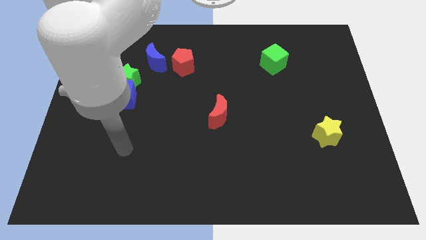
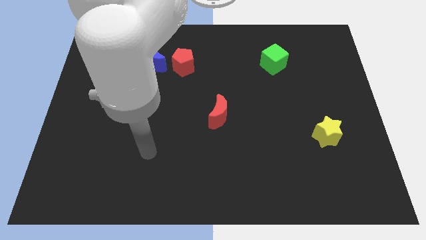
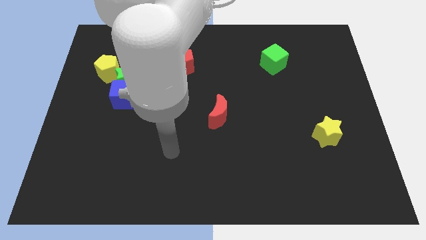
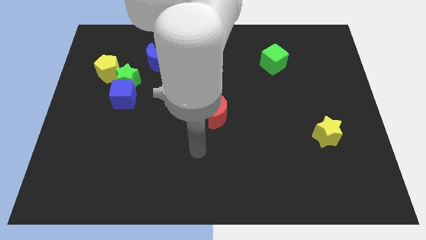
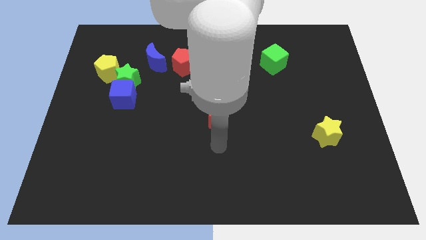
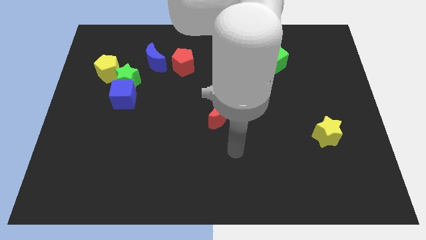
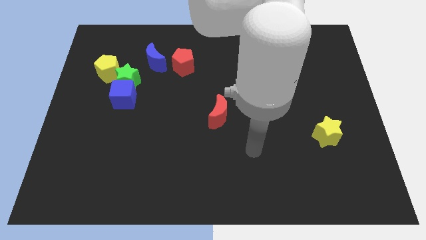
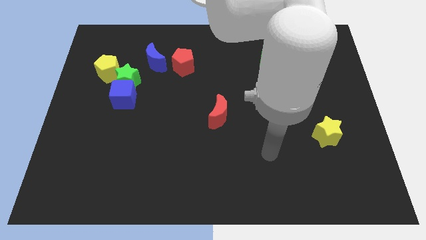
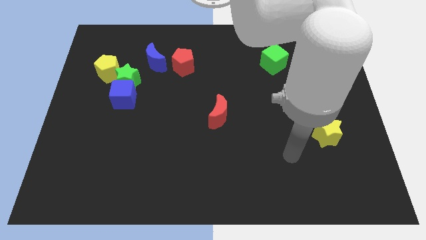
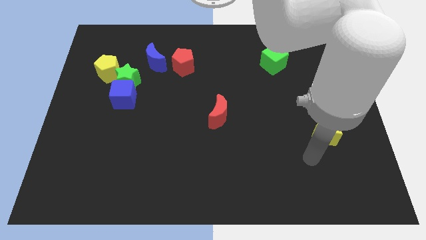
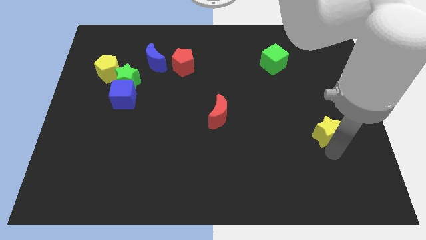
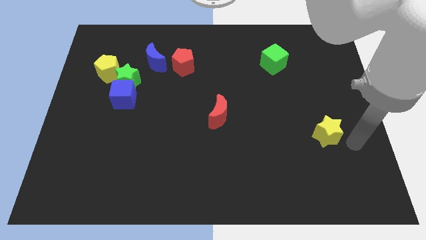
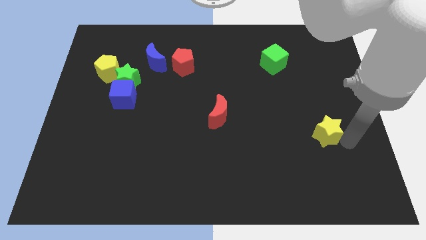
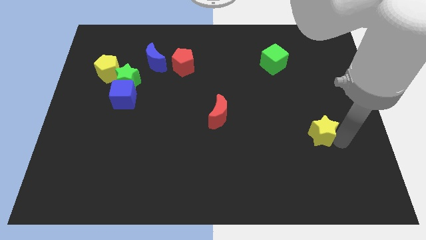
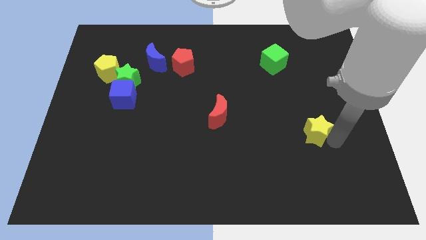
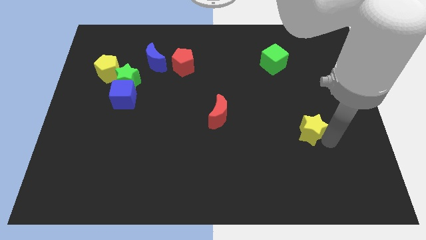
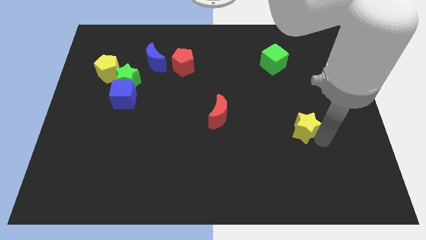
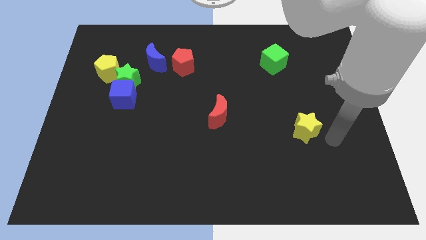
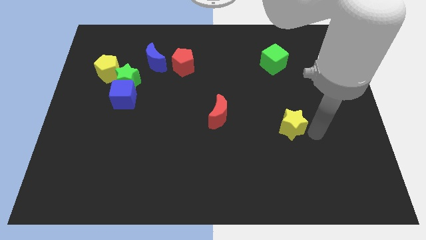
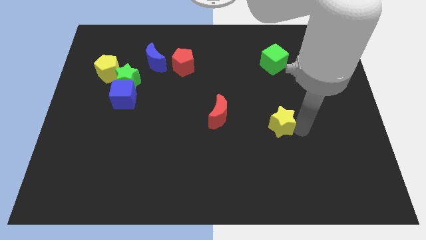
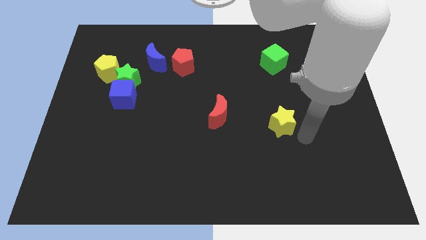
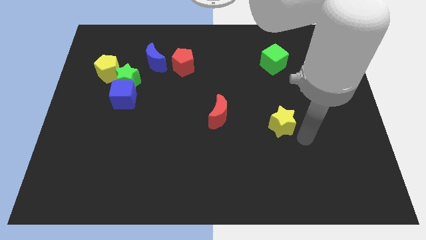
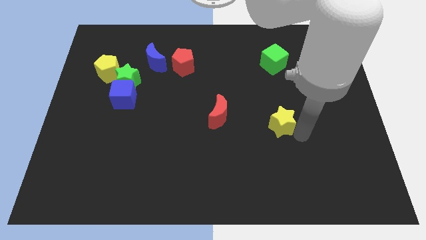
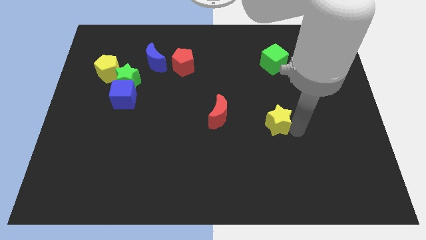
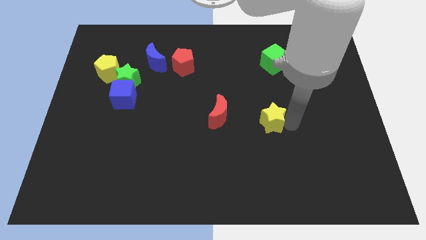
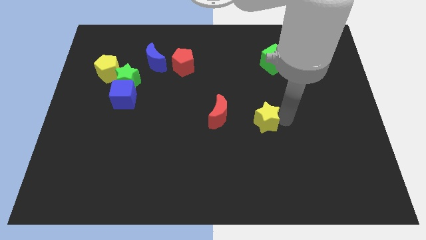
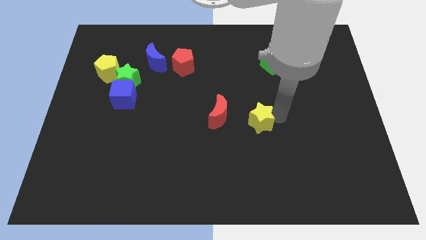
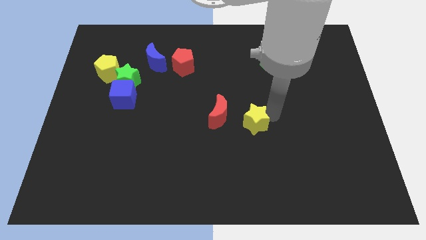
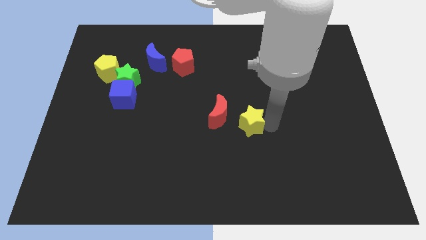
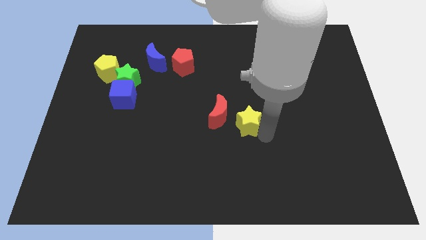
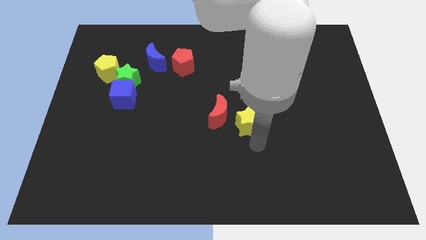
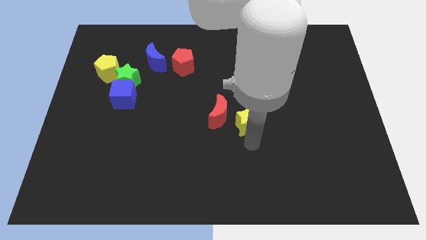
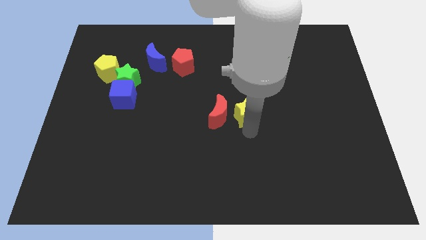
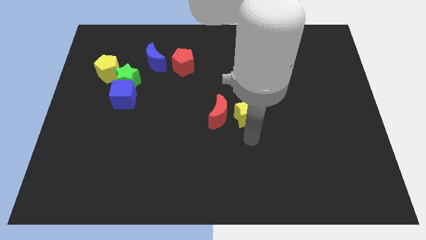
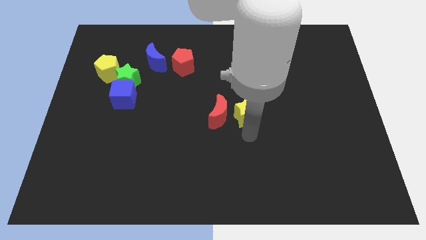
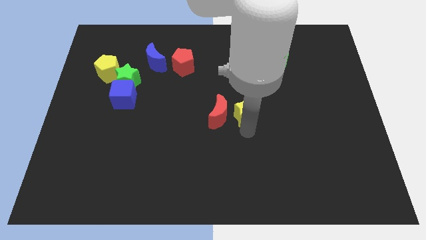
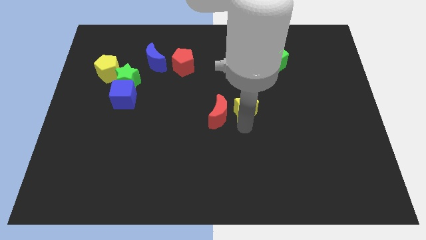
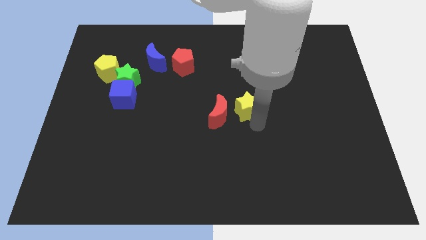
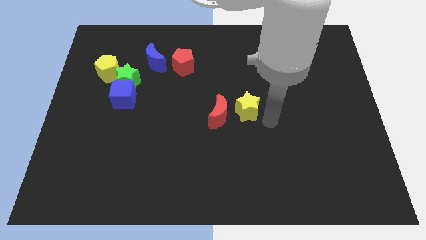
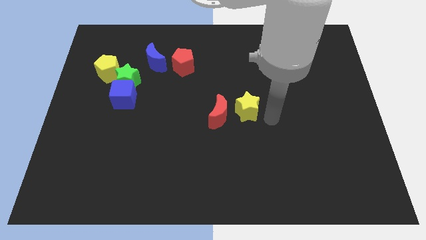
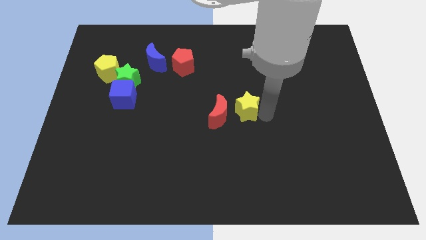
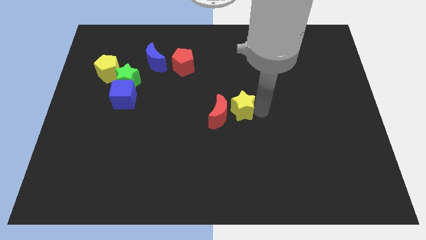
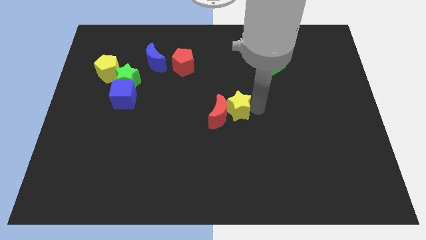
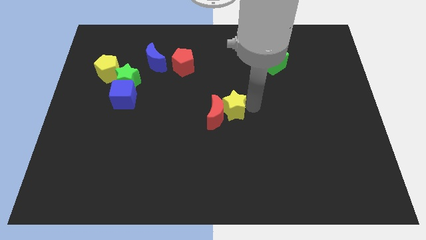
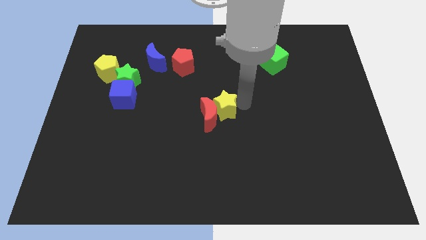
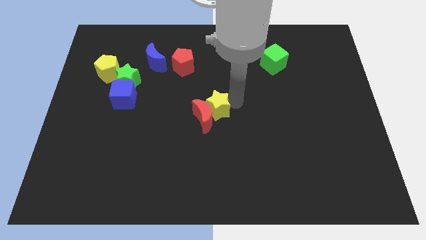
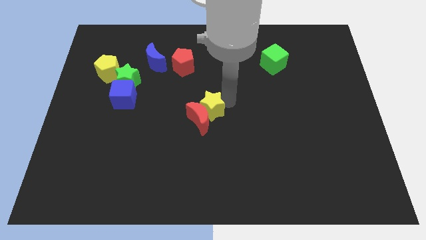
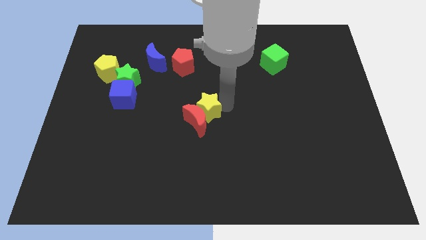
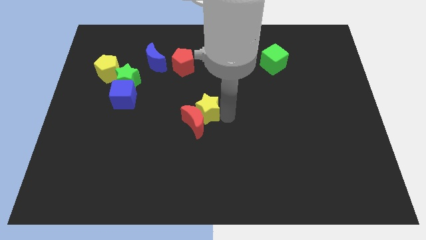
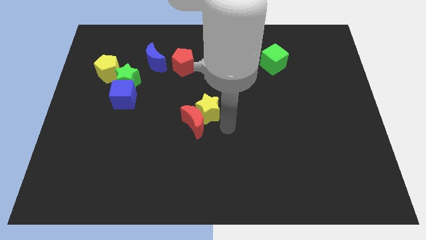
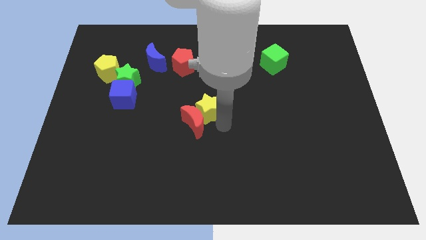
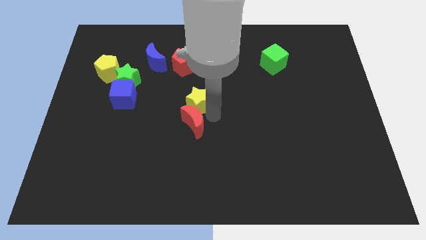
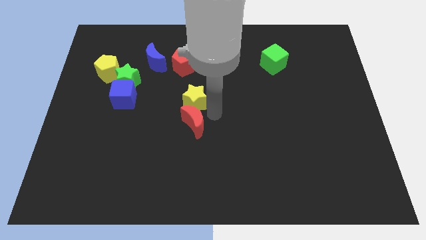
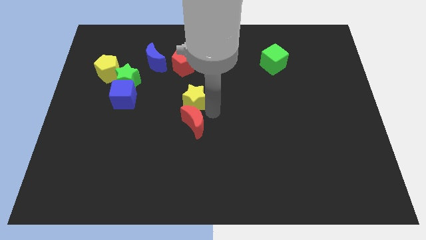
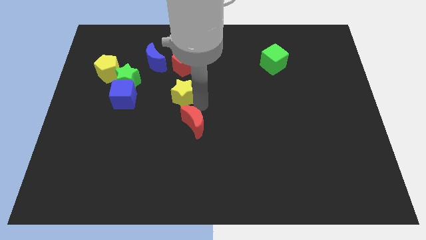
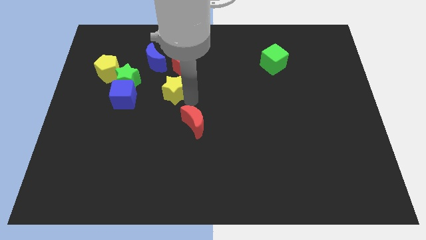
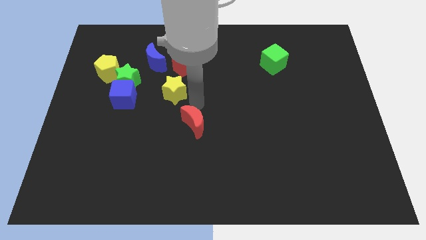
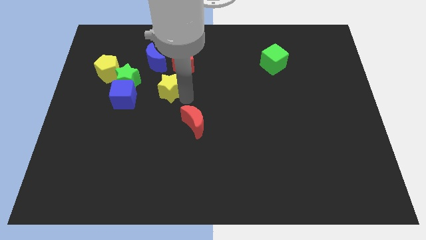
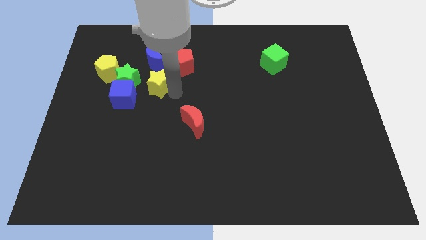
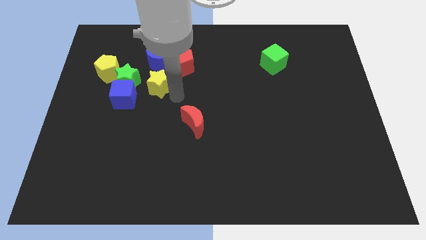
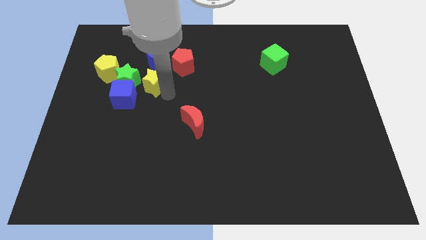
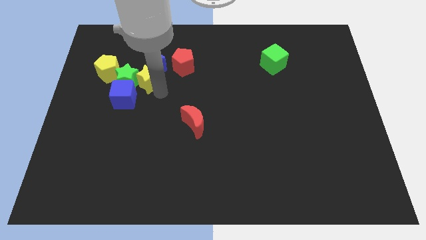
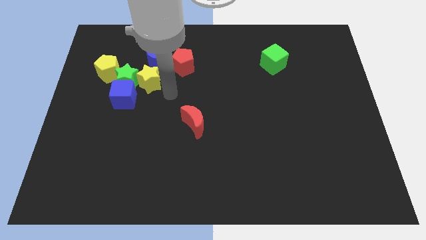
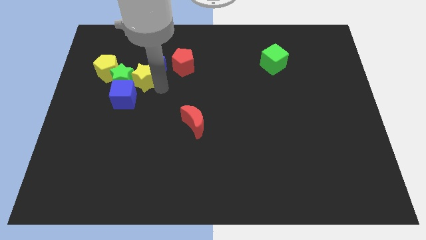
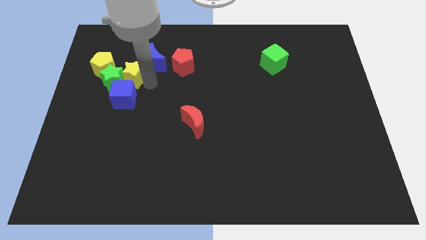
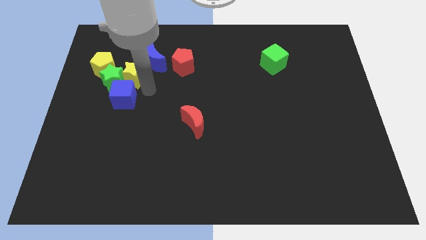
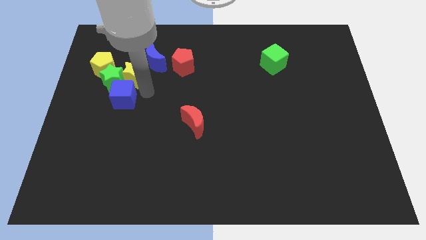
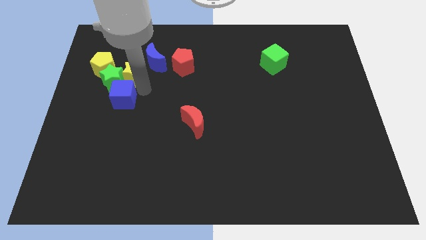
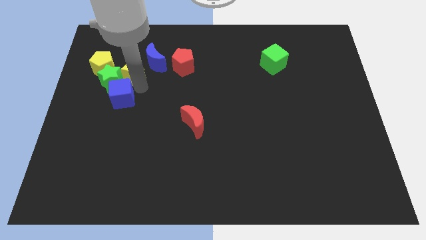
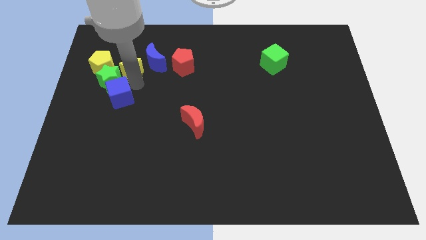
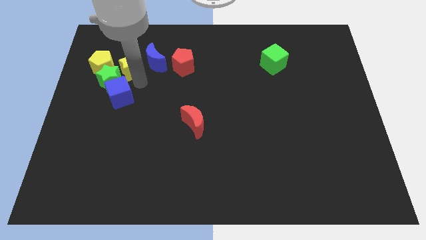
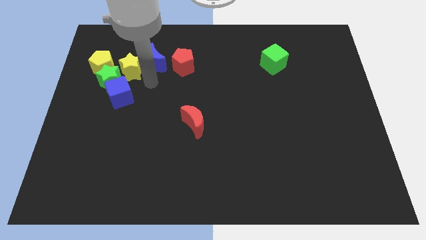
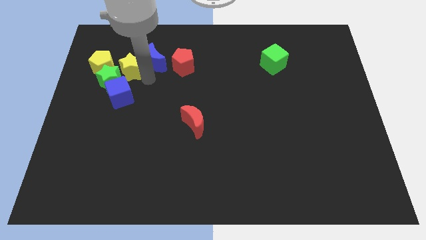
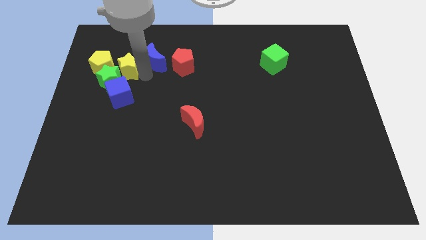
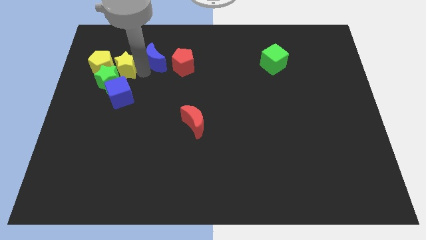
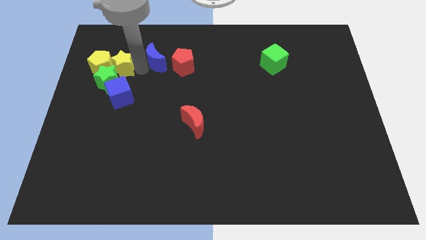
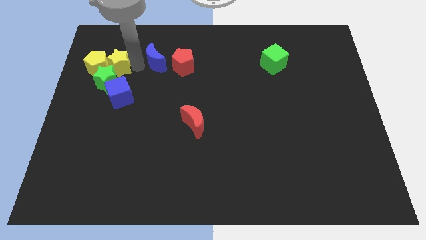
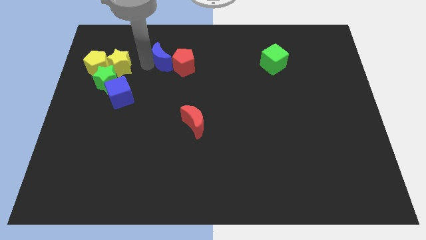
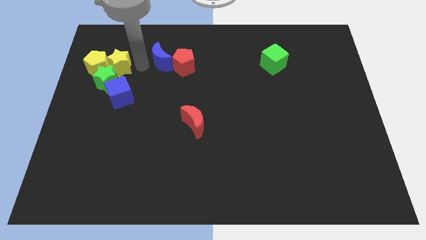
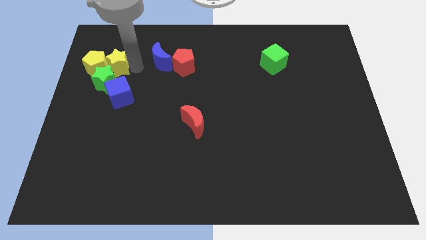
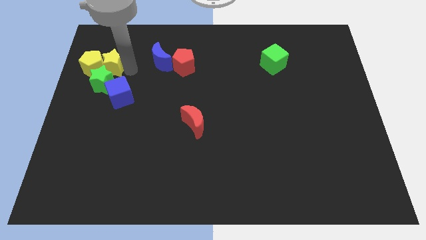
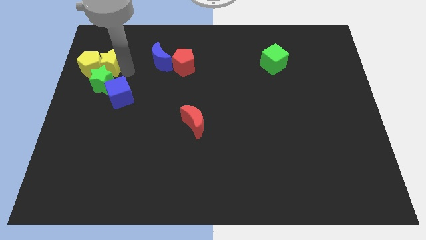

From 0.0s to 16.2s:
move the yellow star to the top left side of the green star
